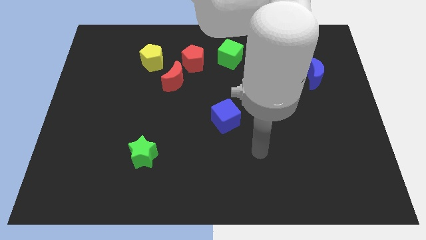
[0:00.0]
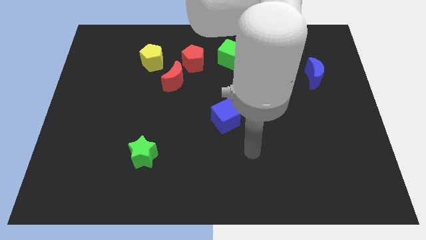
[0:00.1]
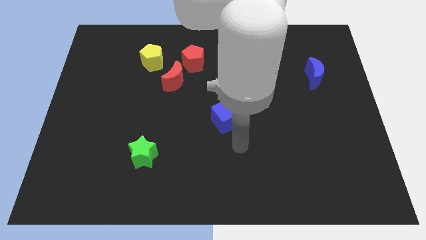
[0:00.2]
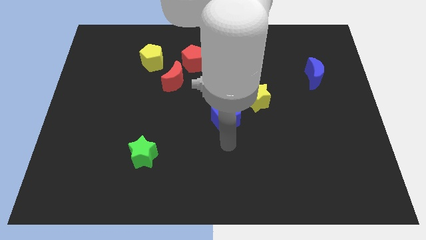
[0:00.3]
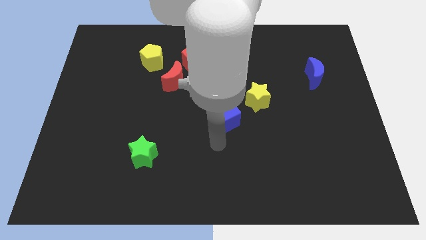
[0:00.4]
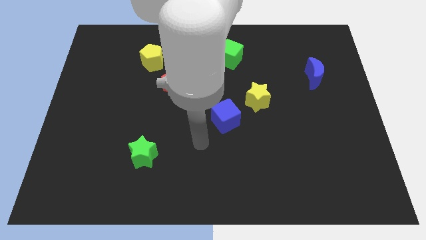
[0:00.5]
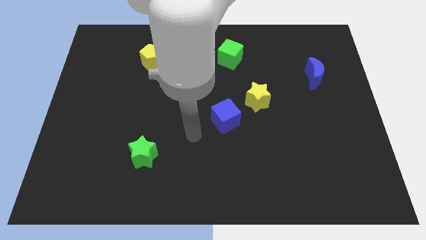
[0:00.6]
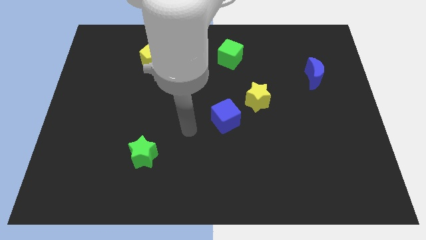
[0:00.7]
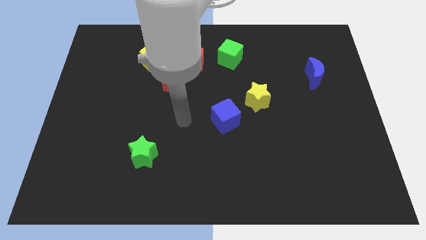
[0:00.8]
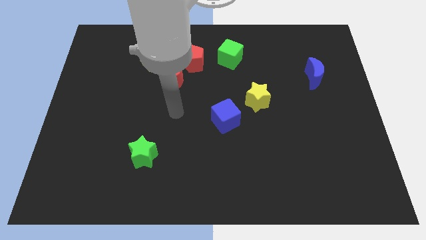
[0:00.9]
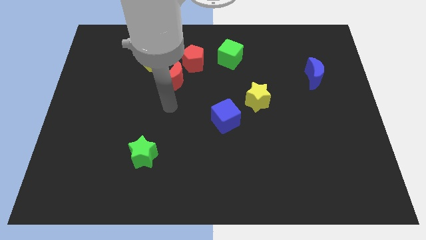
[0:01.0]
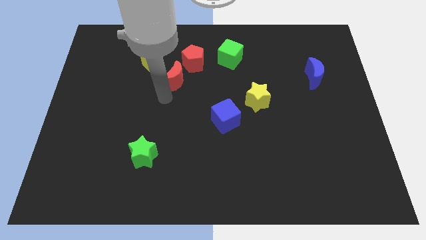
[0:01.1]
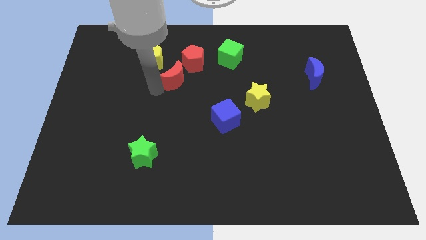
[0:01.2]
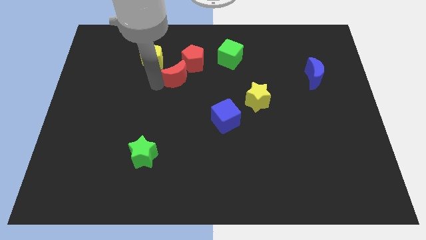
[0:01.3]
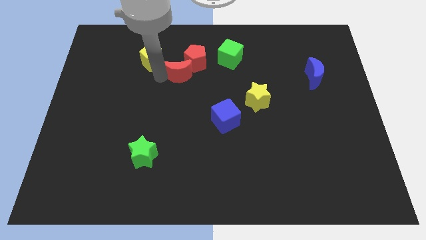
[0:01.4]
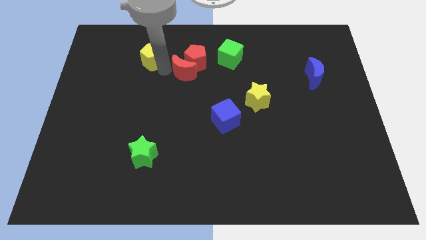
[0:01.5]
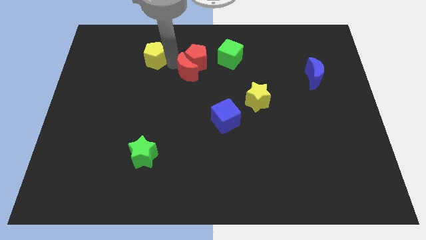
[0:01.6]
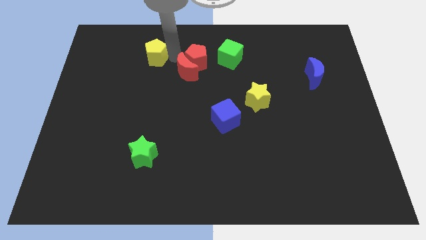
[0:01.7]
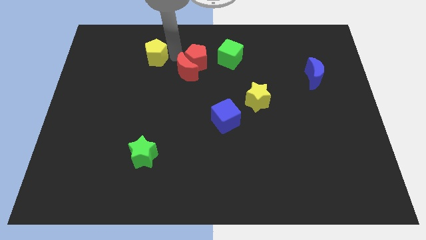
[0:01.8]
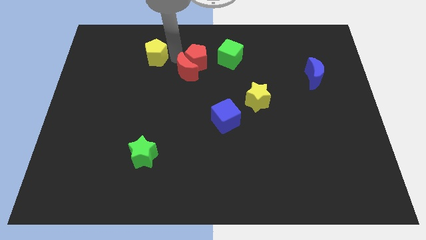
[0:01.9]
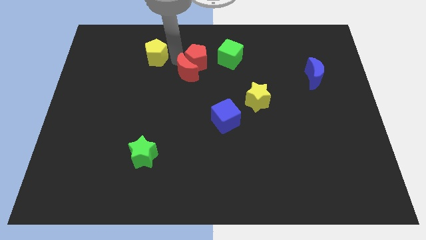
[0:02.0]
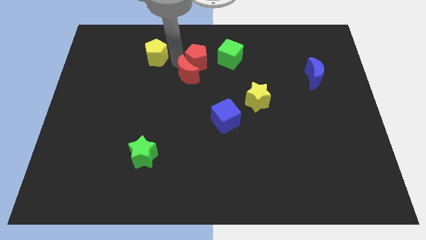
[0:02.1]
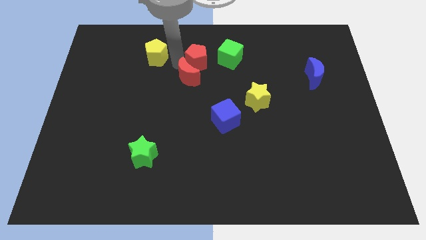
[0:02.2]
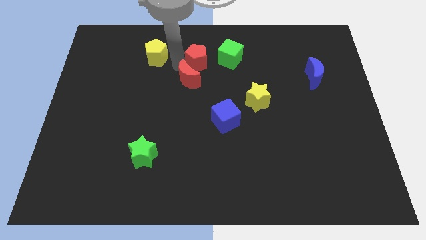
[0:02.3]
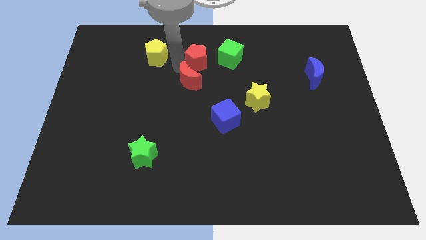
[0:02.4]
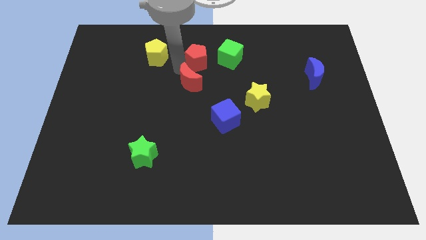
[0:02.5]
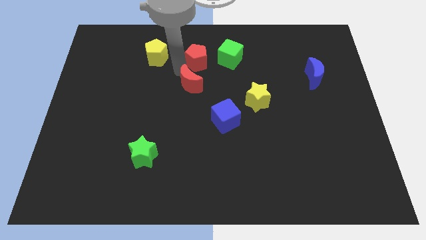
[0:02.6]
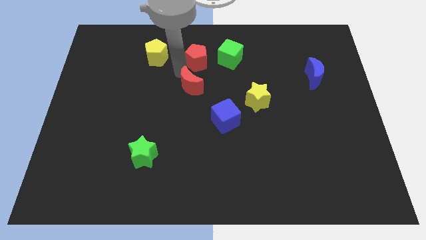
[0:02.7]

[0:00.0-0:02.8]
move the red moon away from the red pentagon and yellow pentagon

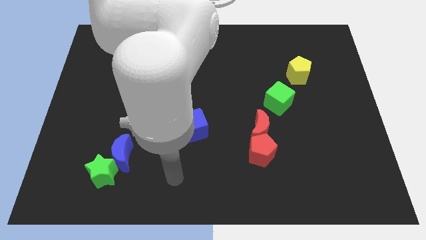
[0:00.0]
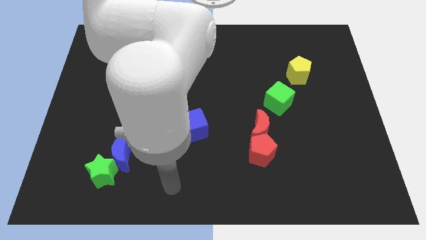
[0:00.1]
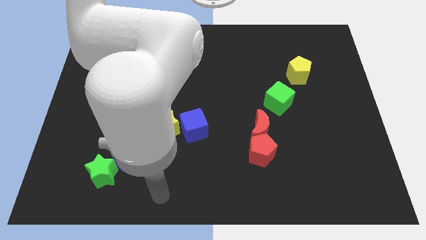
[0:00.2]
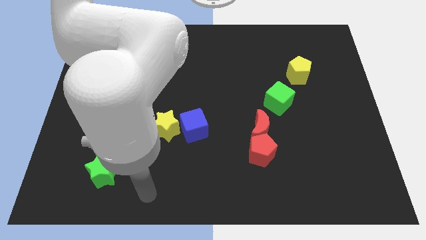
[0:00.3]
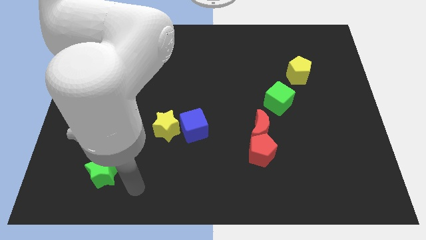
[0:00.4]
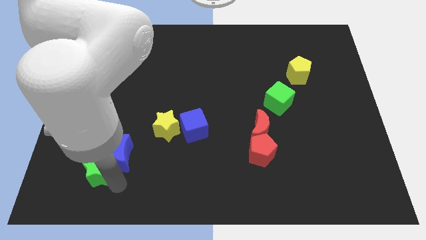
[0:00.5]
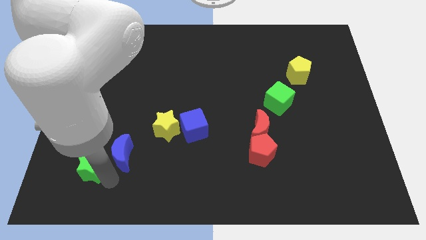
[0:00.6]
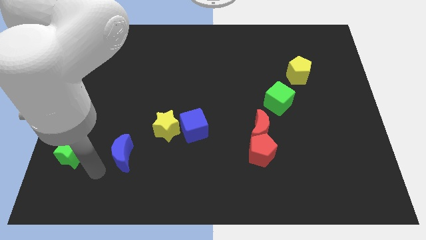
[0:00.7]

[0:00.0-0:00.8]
move the blue moon away from the green star

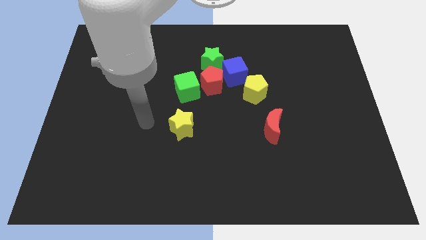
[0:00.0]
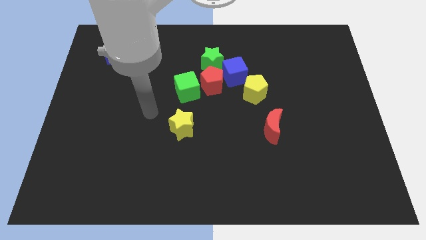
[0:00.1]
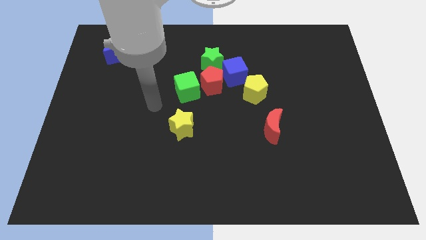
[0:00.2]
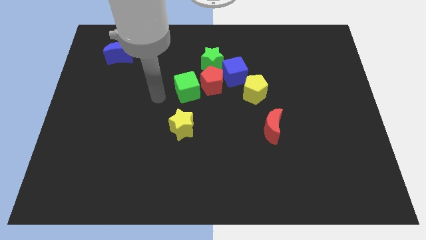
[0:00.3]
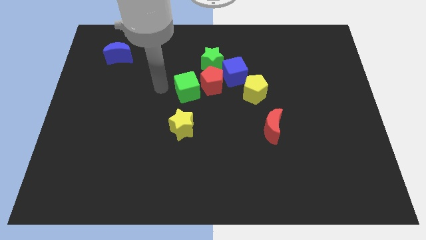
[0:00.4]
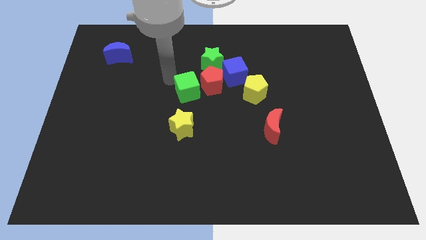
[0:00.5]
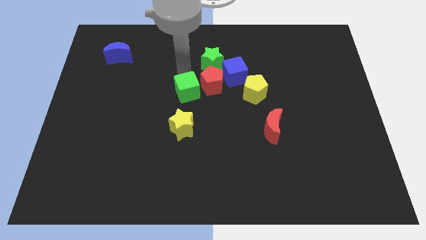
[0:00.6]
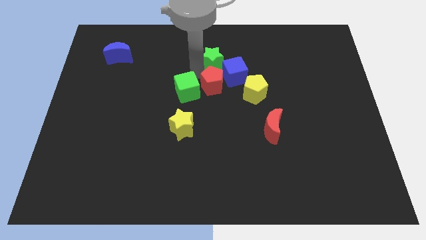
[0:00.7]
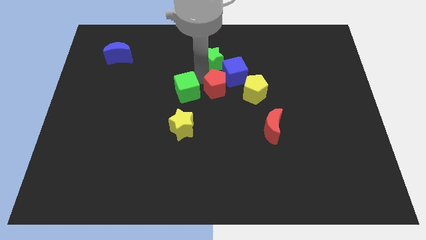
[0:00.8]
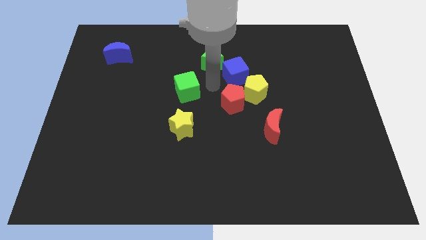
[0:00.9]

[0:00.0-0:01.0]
move the green cube away from the red pentagon

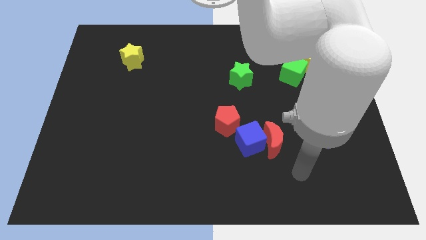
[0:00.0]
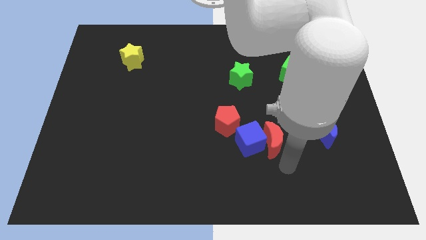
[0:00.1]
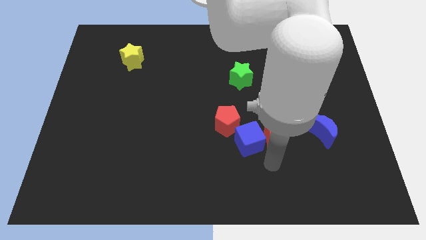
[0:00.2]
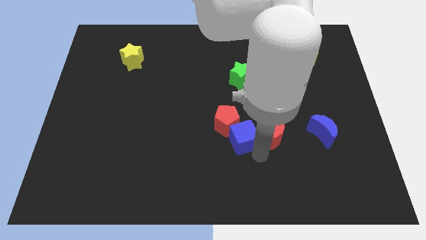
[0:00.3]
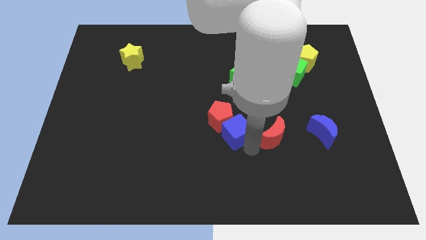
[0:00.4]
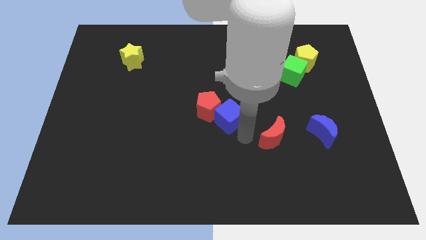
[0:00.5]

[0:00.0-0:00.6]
pull the red moon apart from the blue cube

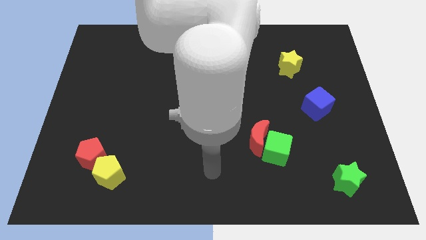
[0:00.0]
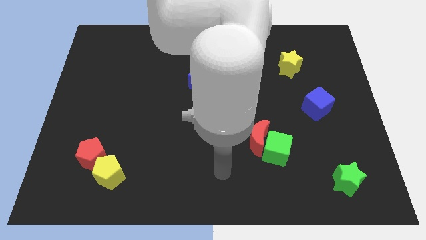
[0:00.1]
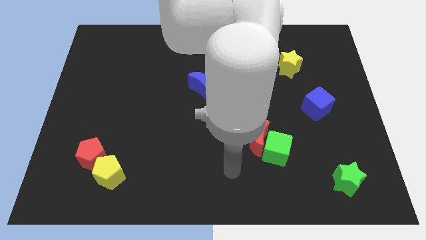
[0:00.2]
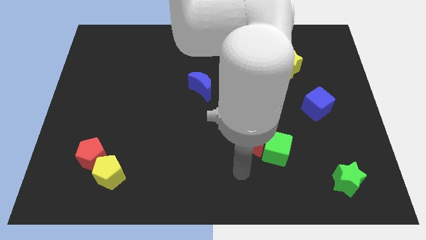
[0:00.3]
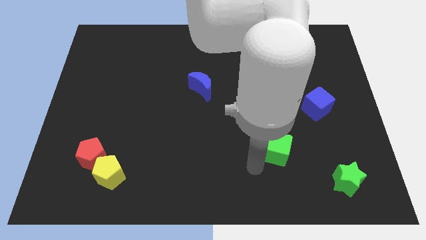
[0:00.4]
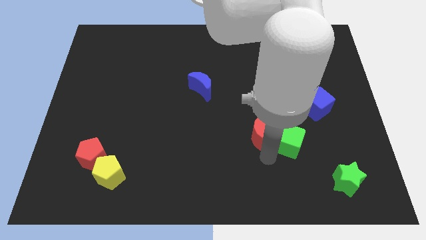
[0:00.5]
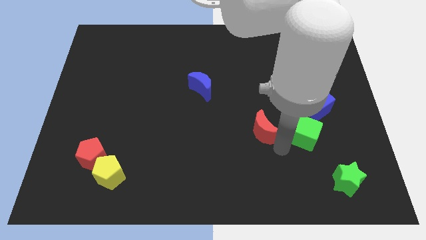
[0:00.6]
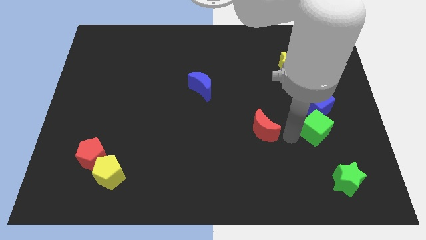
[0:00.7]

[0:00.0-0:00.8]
pull the red moon apart from the green cube

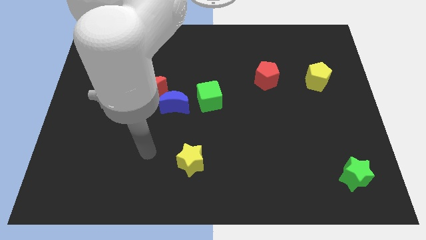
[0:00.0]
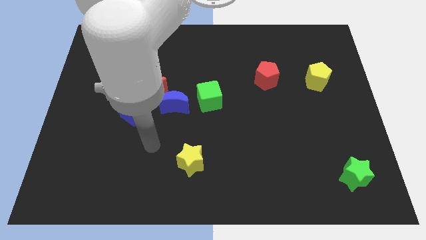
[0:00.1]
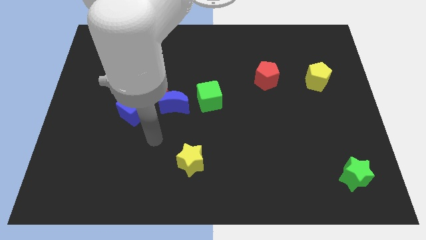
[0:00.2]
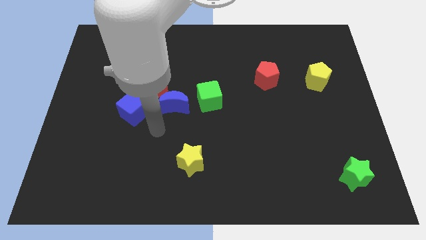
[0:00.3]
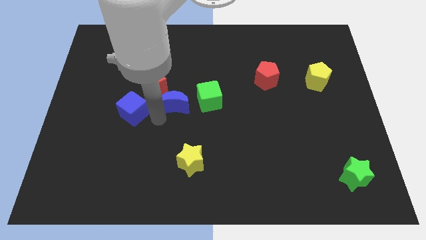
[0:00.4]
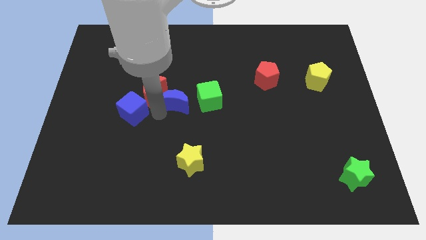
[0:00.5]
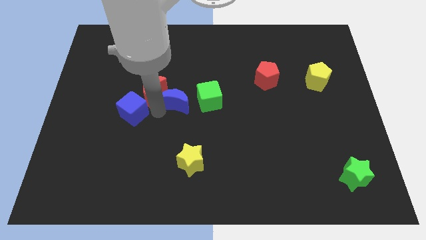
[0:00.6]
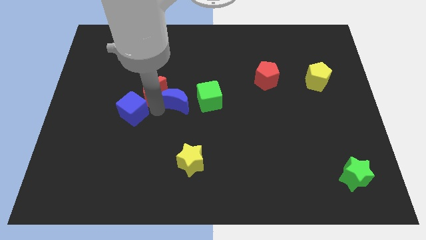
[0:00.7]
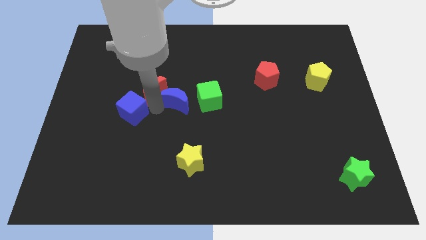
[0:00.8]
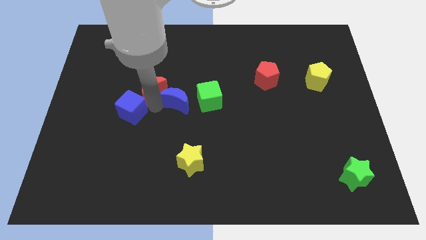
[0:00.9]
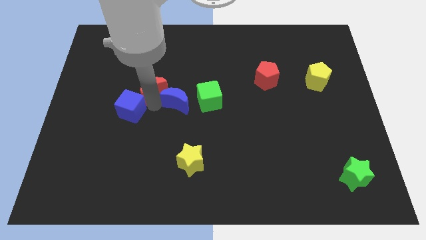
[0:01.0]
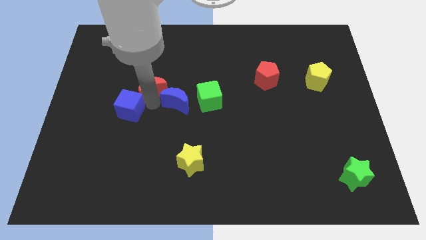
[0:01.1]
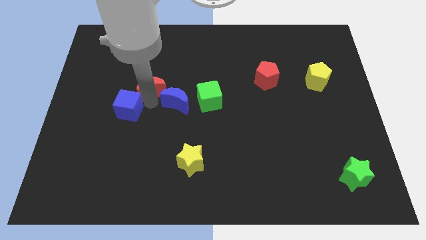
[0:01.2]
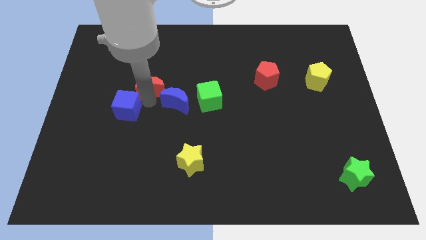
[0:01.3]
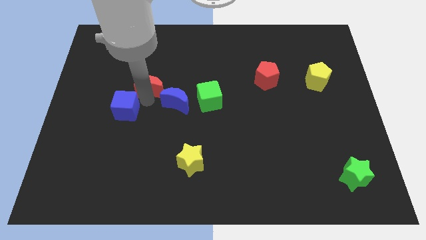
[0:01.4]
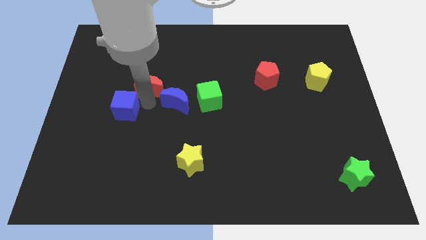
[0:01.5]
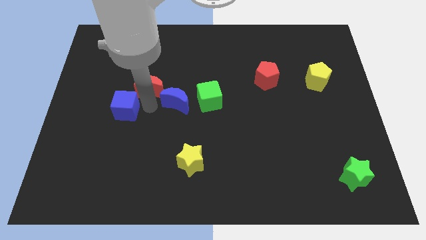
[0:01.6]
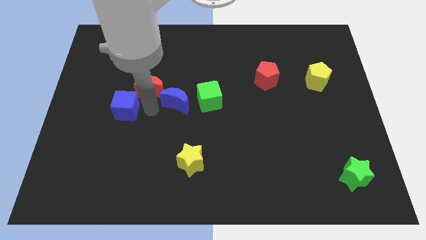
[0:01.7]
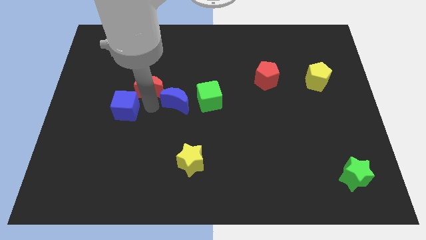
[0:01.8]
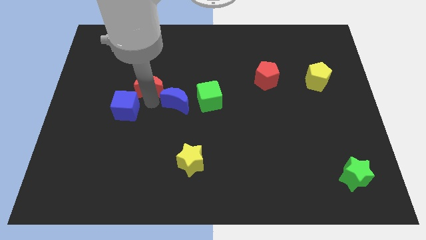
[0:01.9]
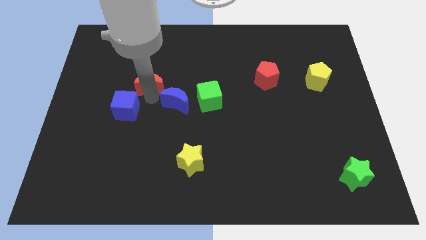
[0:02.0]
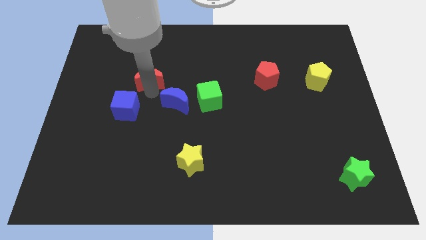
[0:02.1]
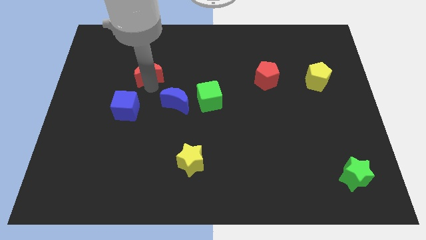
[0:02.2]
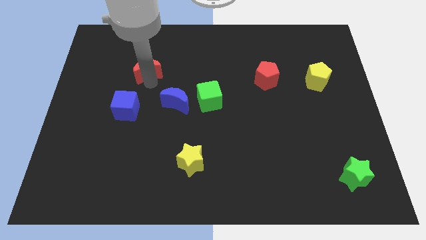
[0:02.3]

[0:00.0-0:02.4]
separate the red moon from the blue moon and blue cube

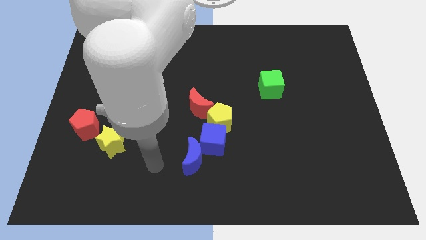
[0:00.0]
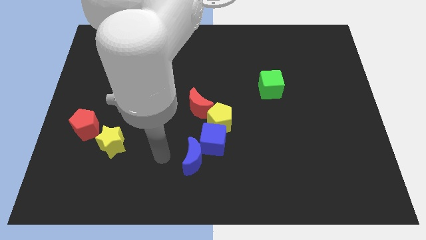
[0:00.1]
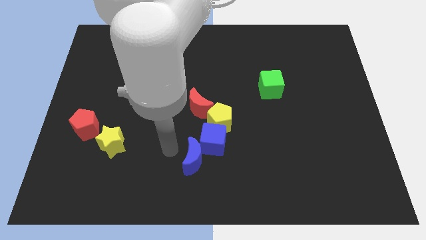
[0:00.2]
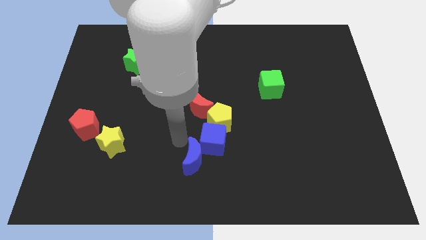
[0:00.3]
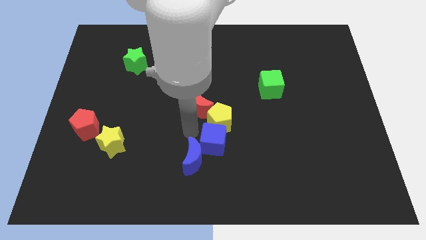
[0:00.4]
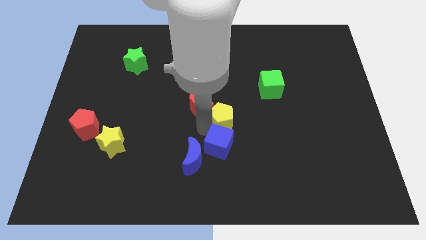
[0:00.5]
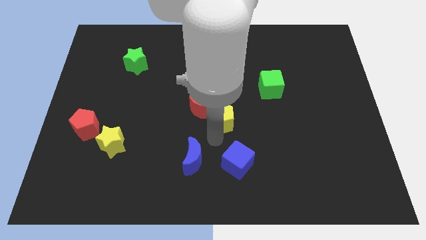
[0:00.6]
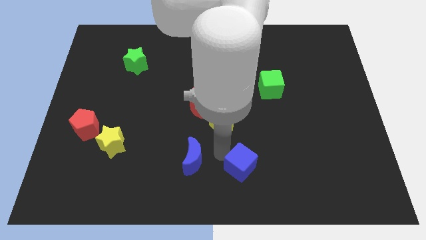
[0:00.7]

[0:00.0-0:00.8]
move the blue moon away from the blue cube
